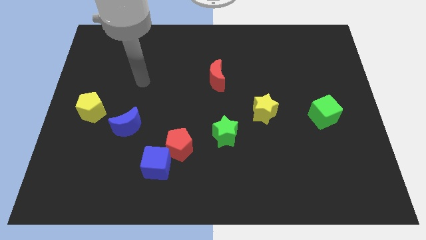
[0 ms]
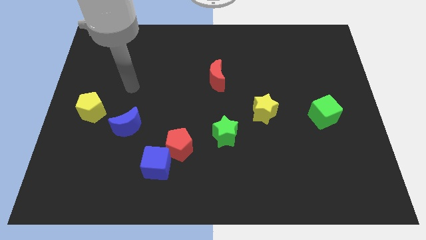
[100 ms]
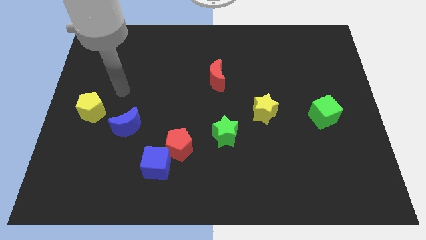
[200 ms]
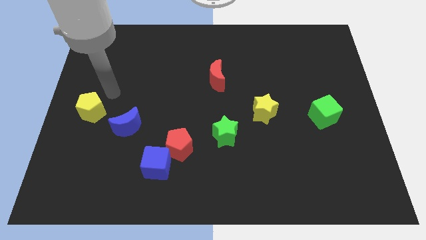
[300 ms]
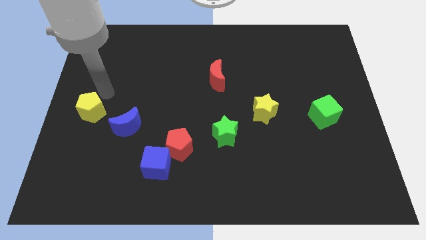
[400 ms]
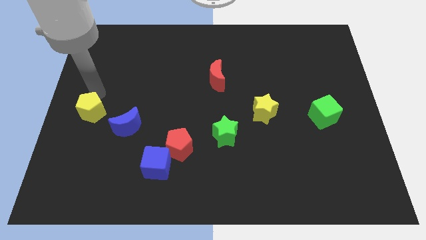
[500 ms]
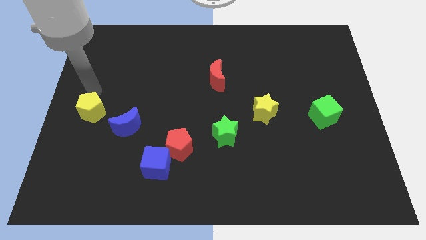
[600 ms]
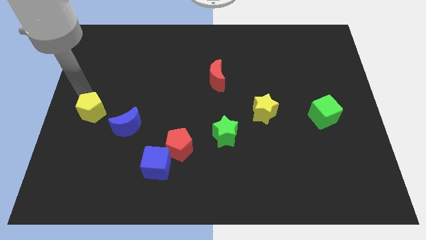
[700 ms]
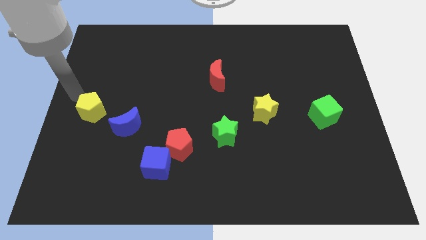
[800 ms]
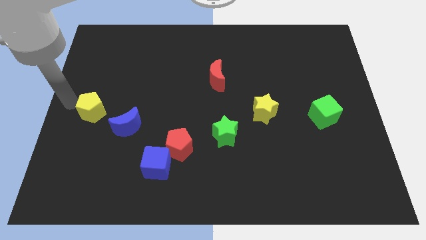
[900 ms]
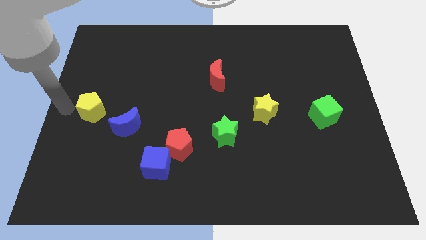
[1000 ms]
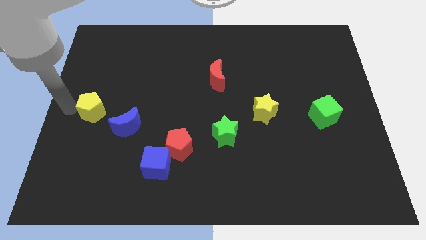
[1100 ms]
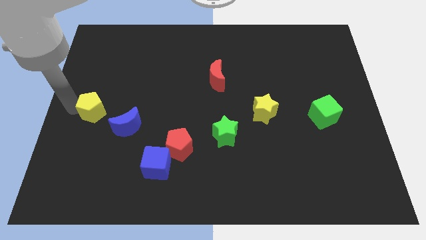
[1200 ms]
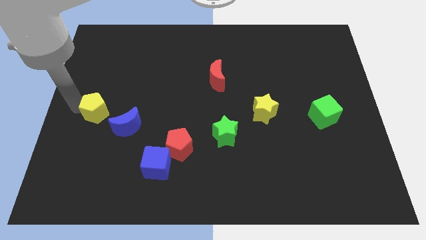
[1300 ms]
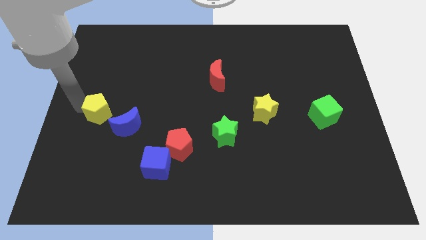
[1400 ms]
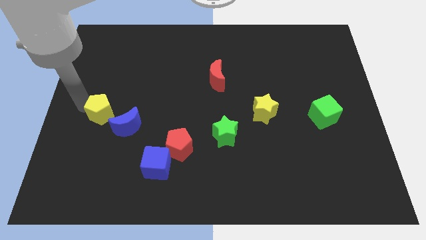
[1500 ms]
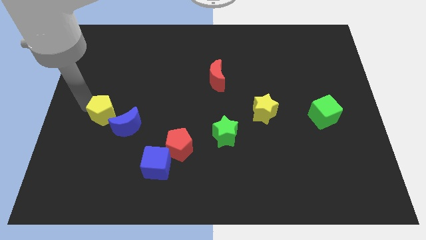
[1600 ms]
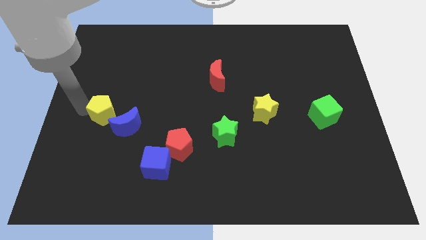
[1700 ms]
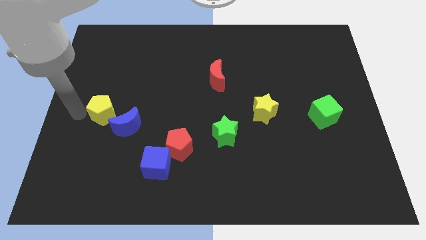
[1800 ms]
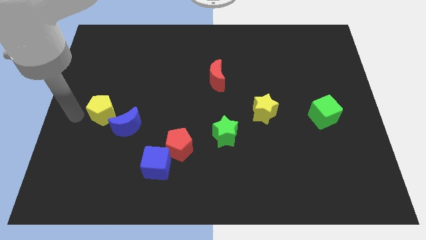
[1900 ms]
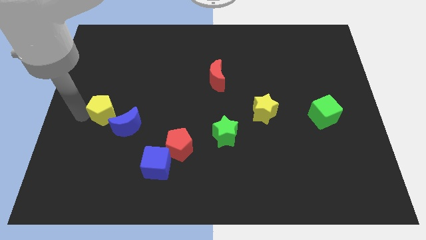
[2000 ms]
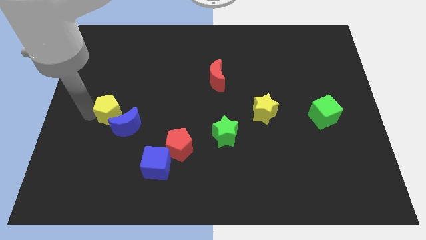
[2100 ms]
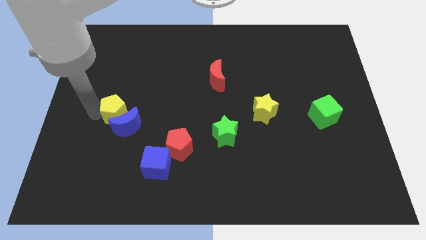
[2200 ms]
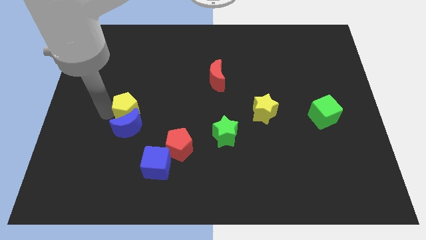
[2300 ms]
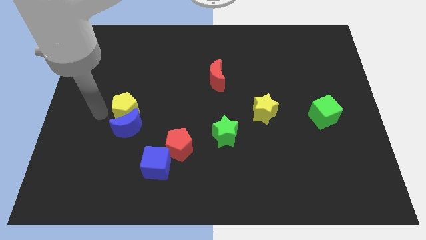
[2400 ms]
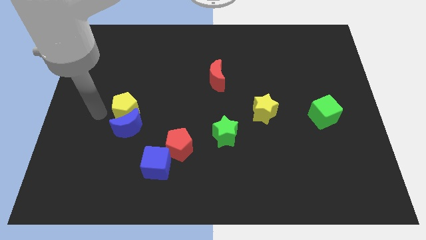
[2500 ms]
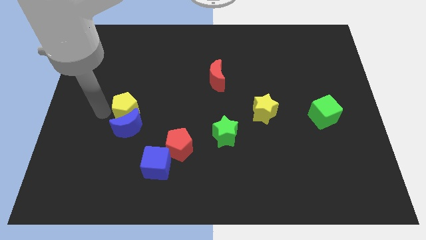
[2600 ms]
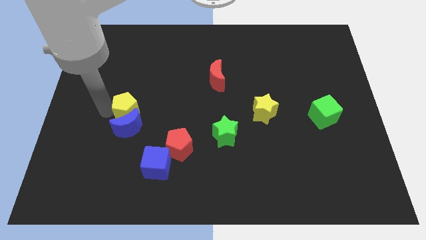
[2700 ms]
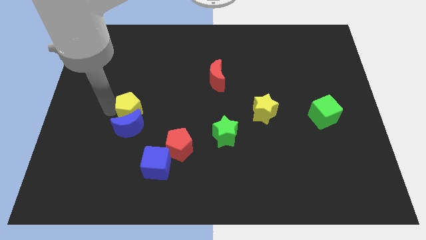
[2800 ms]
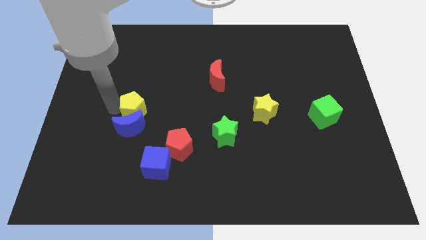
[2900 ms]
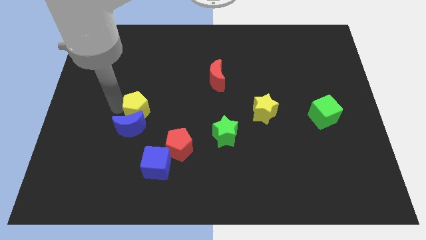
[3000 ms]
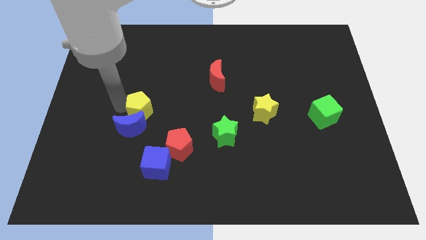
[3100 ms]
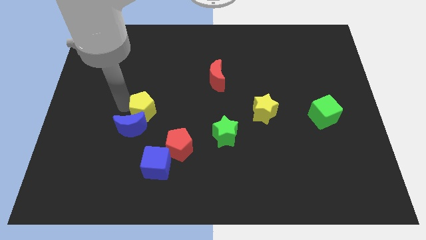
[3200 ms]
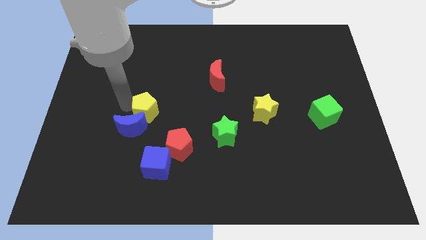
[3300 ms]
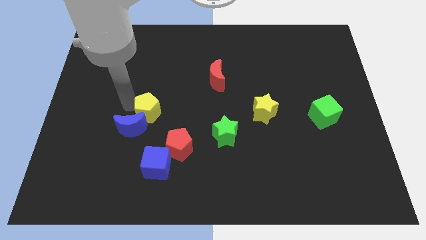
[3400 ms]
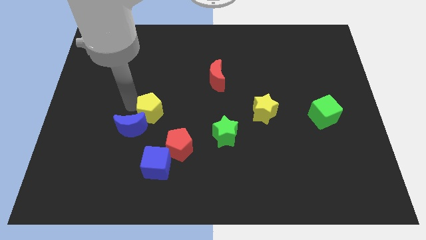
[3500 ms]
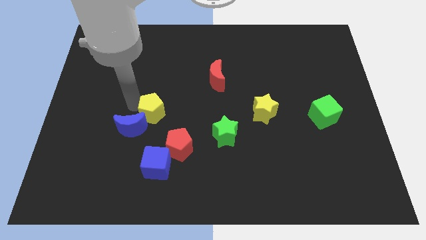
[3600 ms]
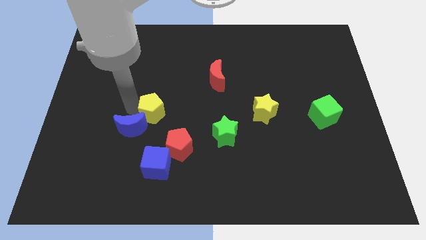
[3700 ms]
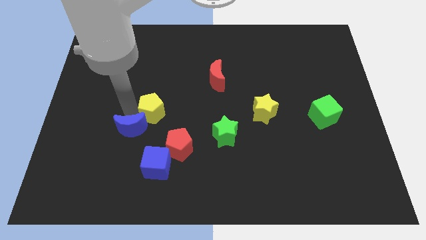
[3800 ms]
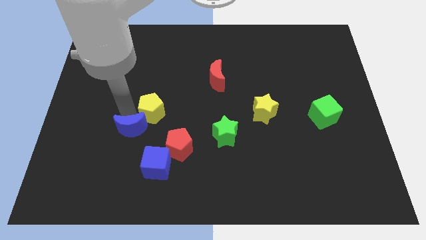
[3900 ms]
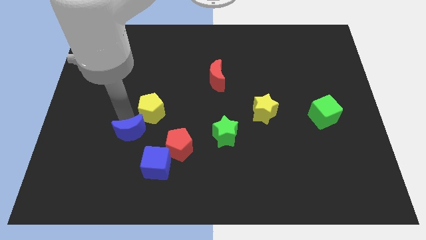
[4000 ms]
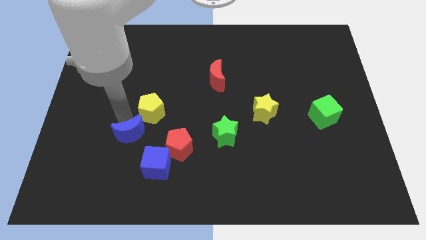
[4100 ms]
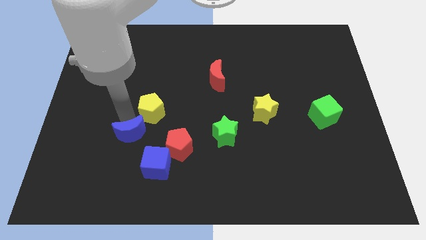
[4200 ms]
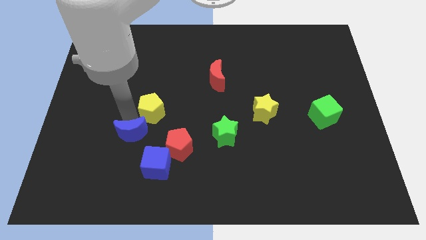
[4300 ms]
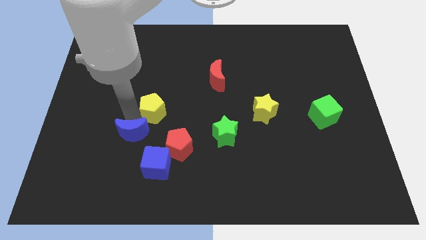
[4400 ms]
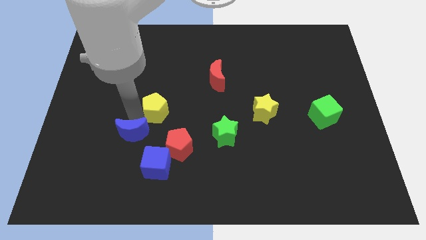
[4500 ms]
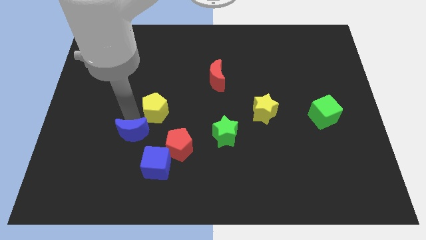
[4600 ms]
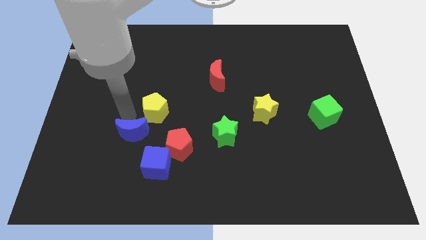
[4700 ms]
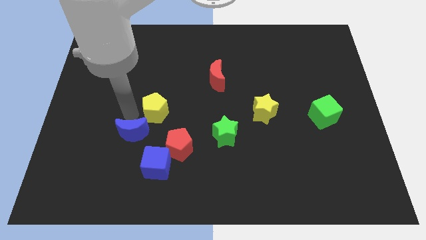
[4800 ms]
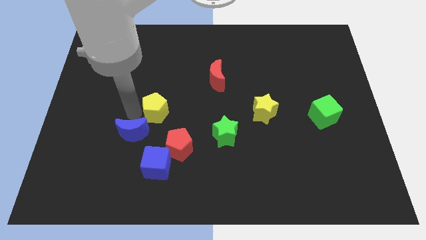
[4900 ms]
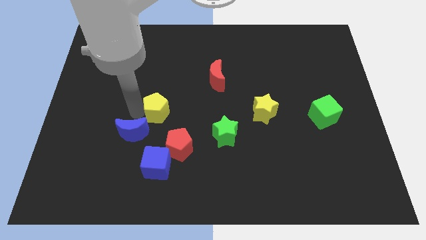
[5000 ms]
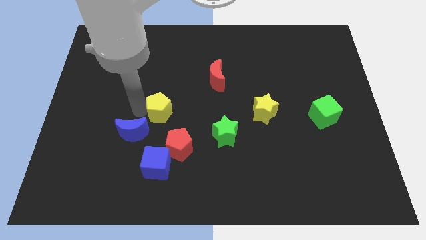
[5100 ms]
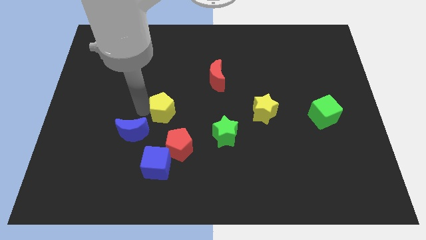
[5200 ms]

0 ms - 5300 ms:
move the yellow pentagon to the center of the board

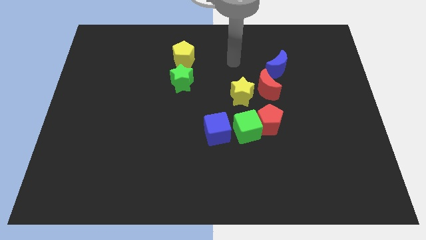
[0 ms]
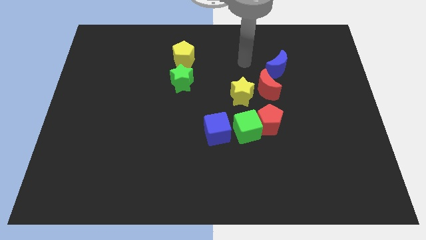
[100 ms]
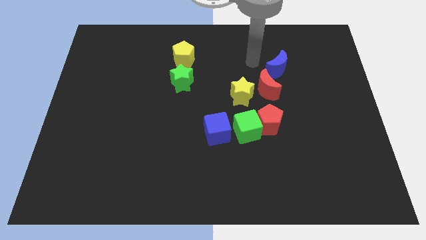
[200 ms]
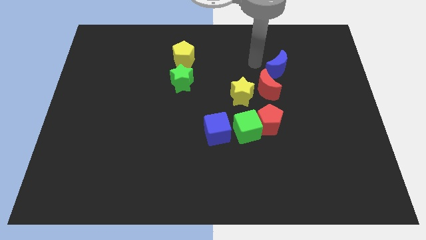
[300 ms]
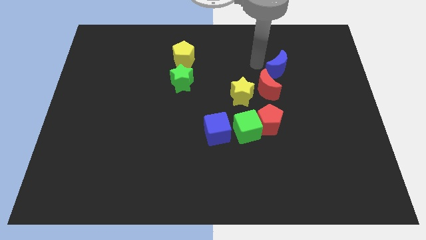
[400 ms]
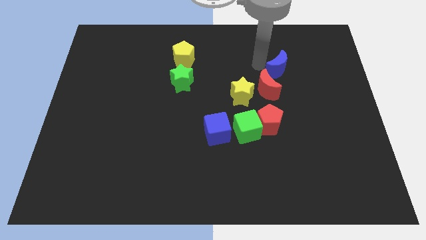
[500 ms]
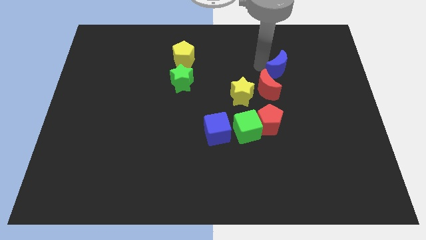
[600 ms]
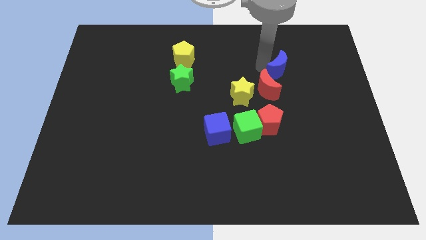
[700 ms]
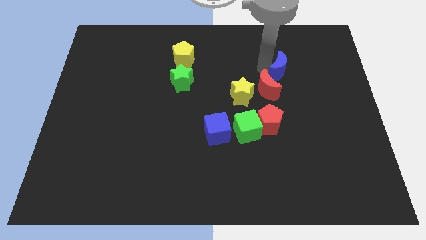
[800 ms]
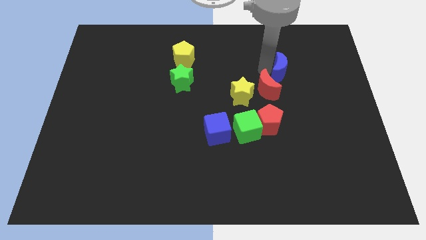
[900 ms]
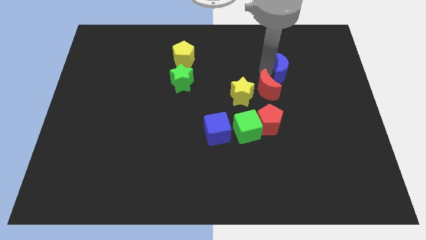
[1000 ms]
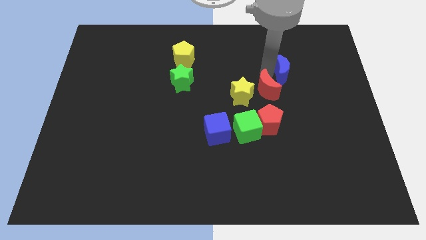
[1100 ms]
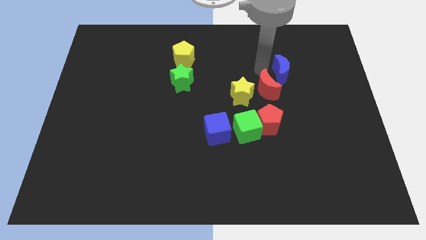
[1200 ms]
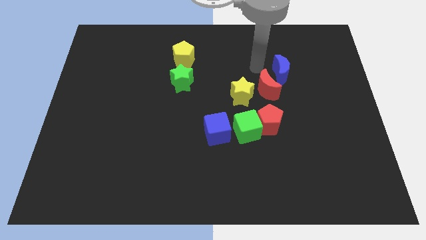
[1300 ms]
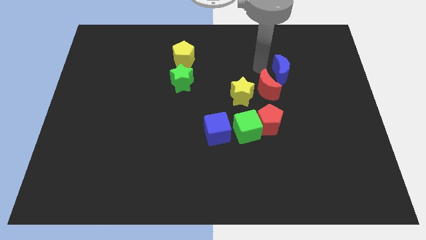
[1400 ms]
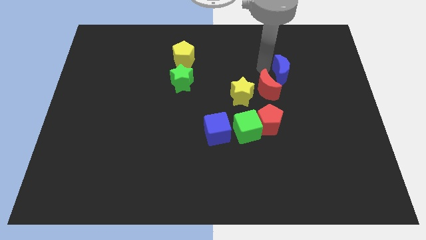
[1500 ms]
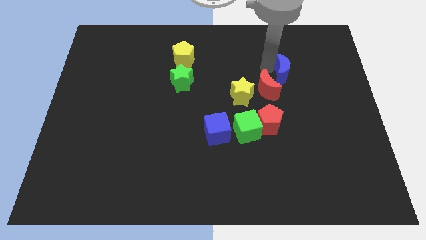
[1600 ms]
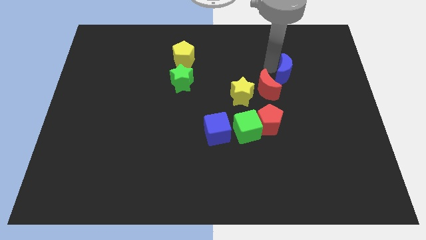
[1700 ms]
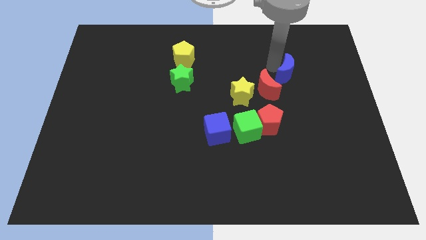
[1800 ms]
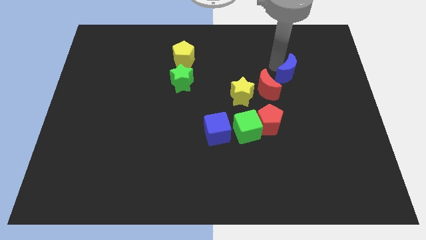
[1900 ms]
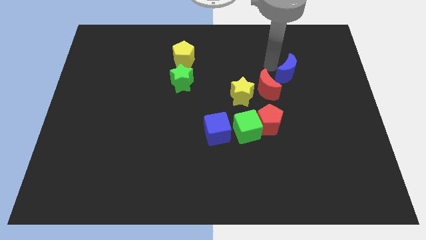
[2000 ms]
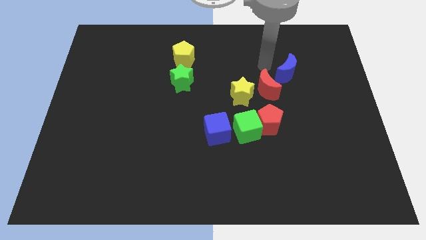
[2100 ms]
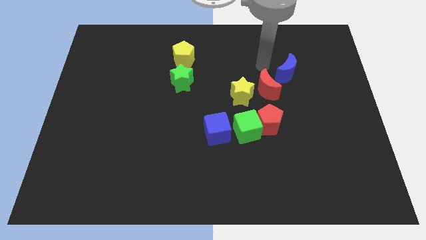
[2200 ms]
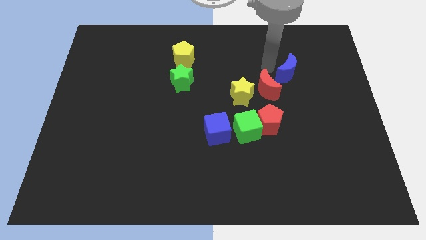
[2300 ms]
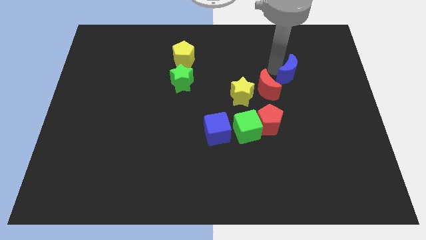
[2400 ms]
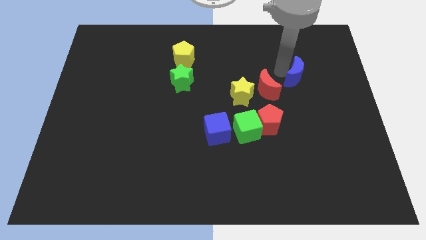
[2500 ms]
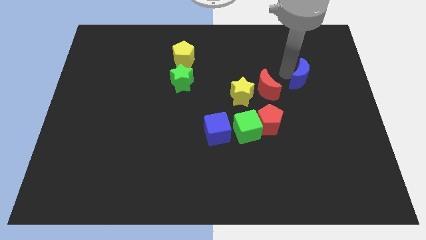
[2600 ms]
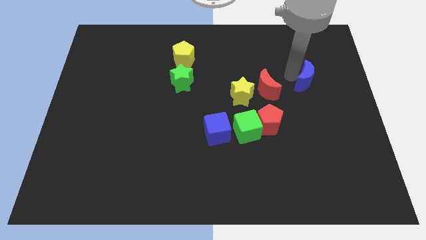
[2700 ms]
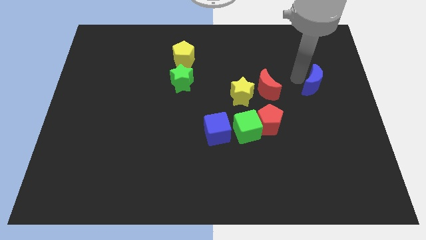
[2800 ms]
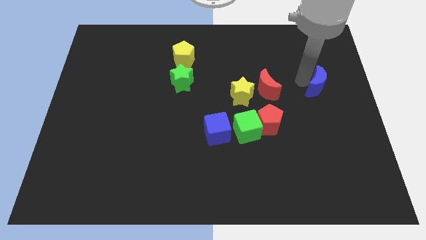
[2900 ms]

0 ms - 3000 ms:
push the blue moon to the center right
